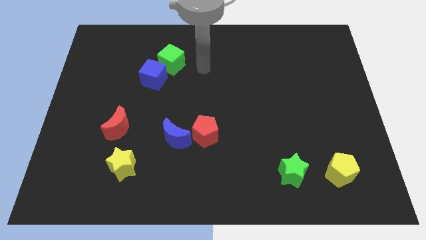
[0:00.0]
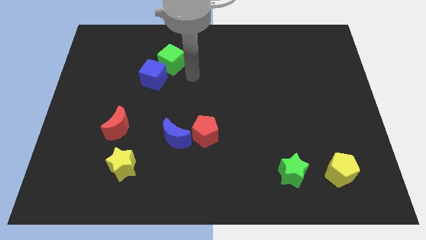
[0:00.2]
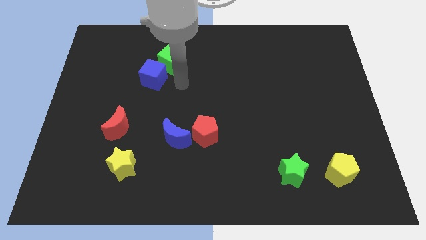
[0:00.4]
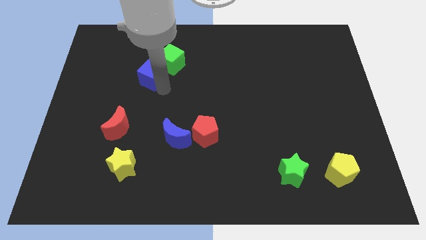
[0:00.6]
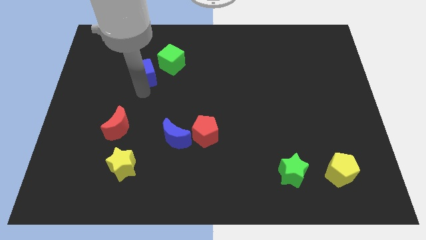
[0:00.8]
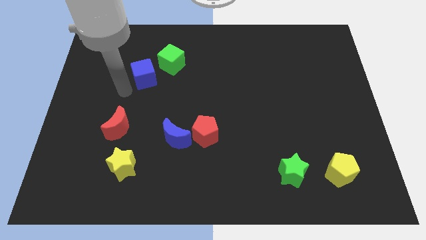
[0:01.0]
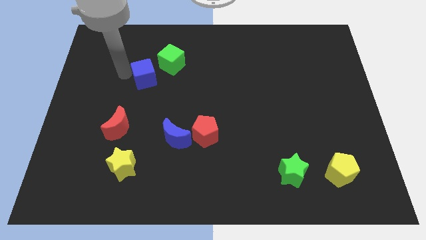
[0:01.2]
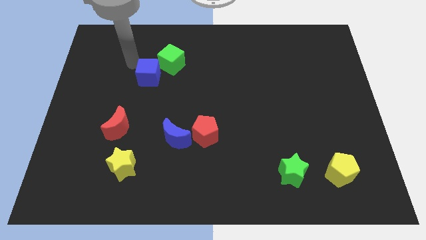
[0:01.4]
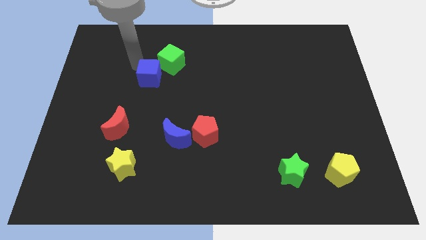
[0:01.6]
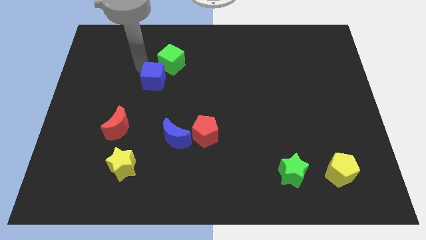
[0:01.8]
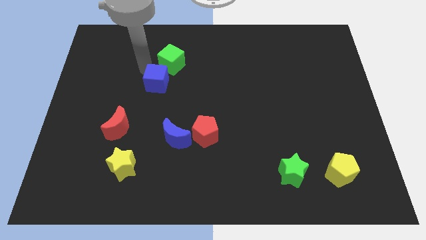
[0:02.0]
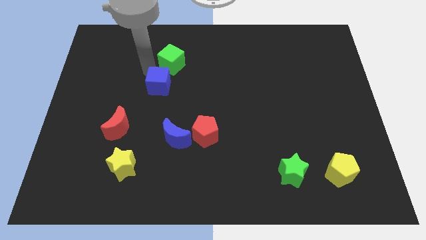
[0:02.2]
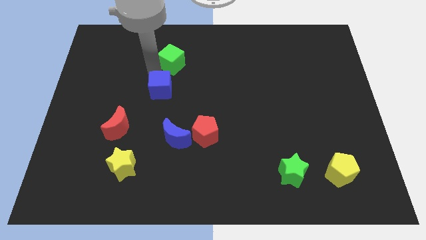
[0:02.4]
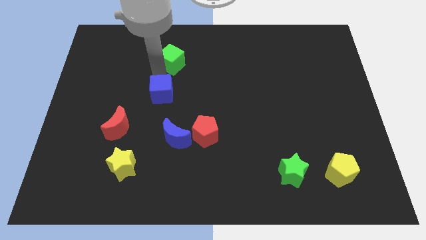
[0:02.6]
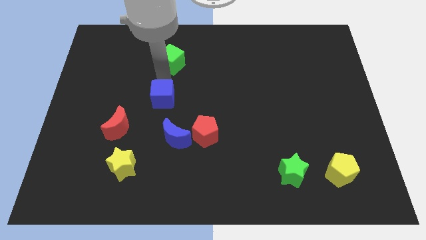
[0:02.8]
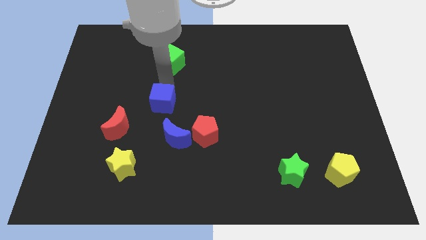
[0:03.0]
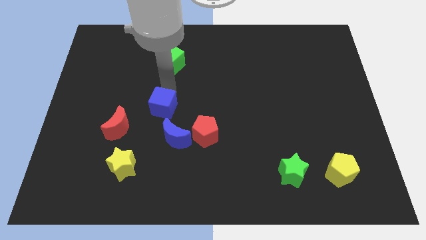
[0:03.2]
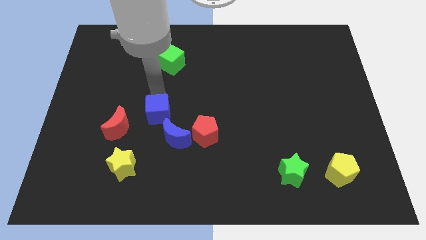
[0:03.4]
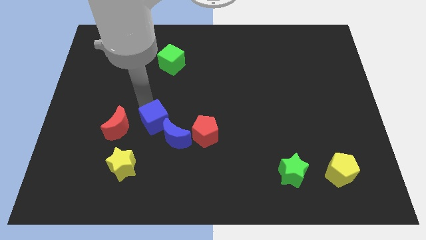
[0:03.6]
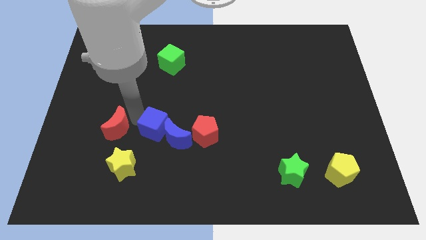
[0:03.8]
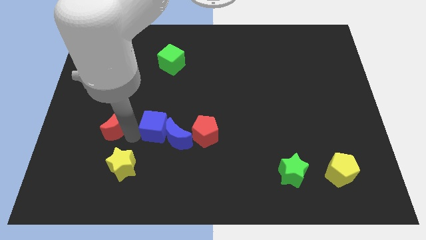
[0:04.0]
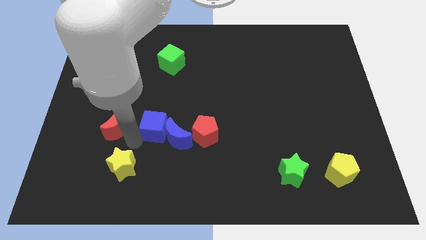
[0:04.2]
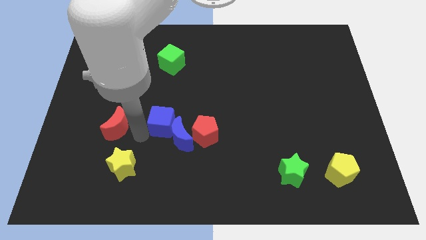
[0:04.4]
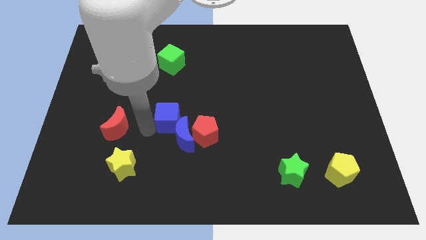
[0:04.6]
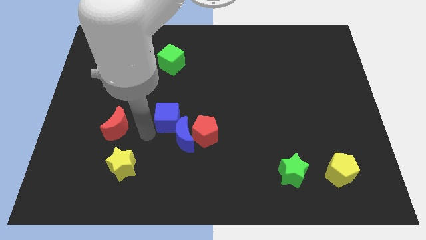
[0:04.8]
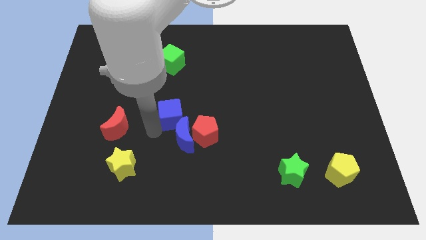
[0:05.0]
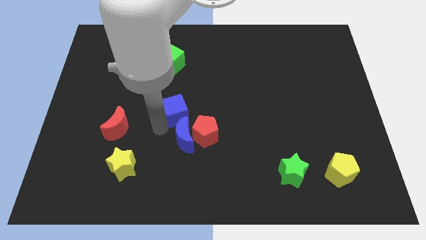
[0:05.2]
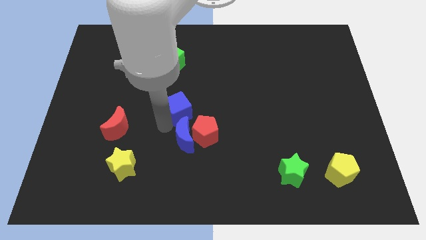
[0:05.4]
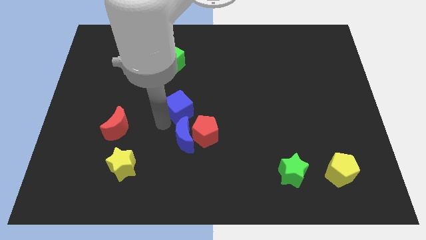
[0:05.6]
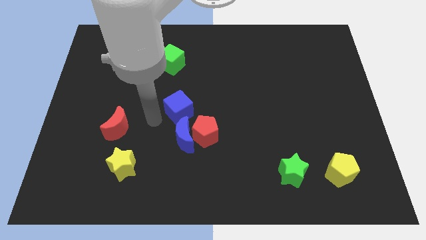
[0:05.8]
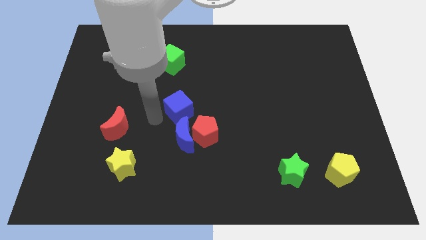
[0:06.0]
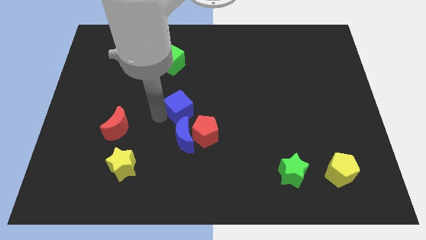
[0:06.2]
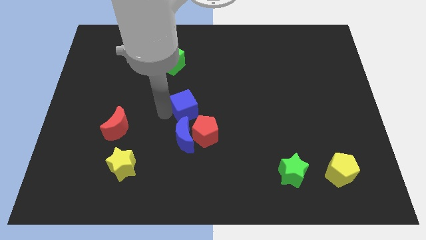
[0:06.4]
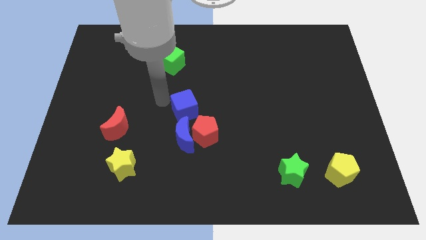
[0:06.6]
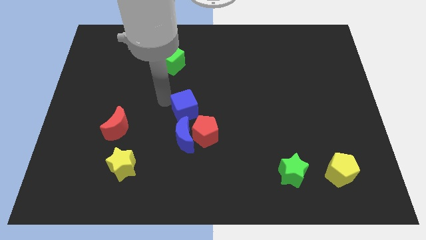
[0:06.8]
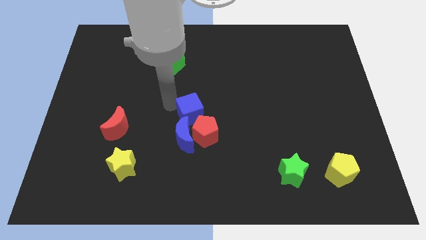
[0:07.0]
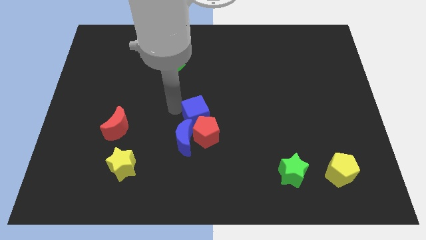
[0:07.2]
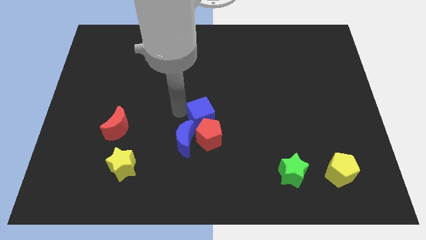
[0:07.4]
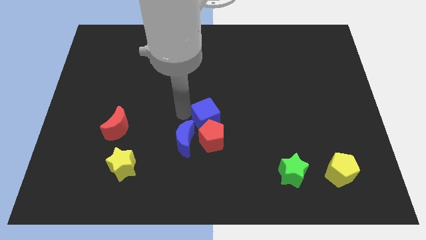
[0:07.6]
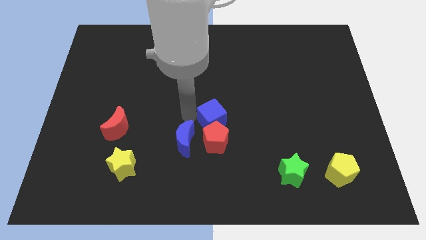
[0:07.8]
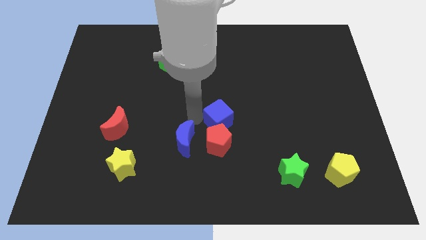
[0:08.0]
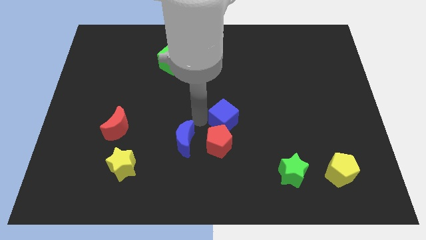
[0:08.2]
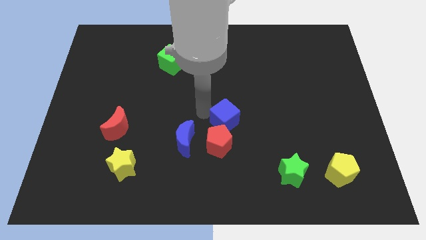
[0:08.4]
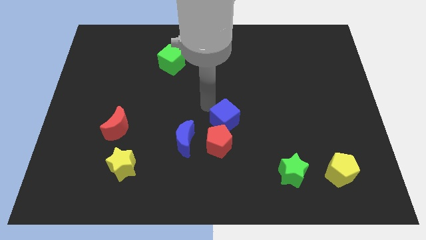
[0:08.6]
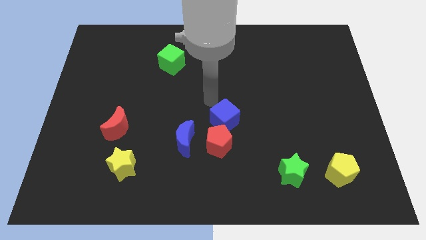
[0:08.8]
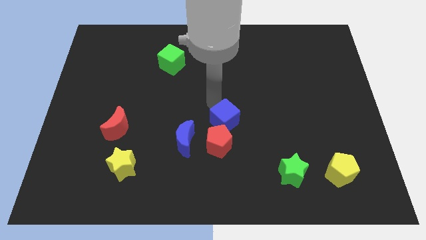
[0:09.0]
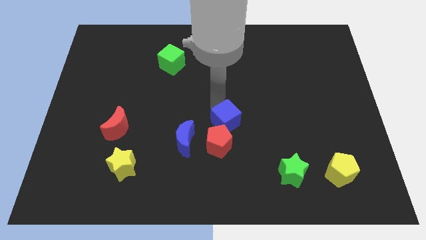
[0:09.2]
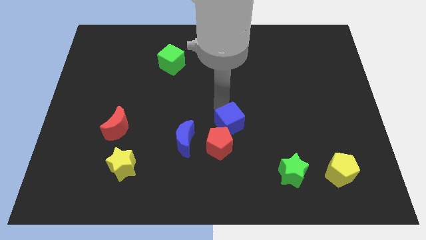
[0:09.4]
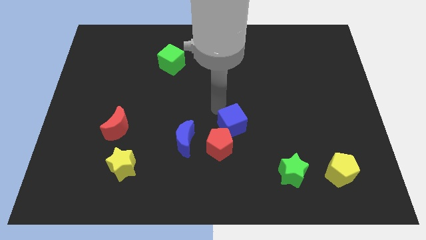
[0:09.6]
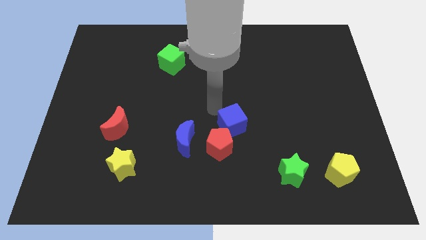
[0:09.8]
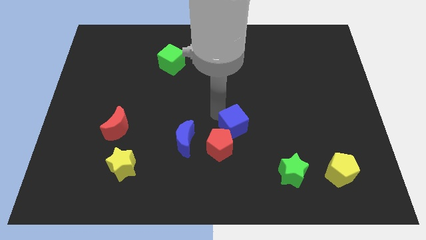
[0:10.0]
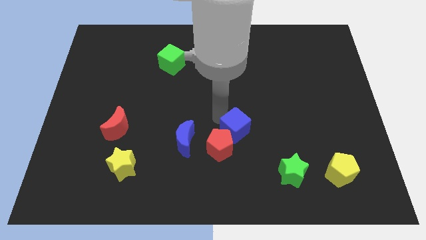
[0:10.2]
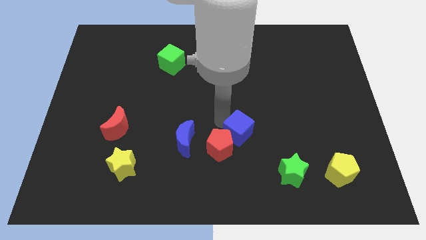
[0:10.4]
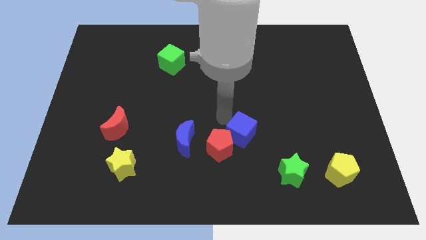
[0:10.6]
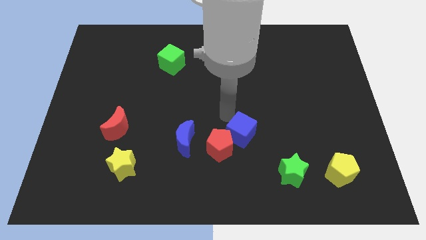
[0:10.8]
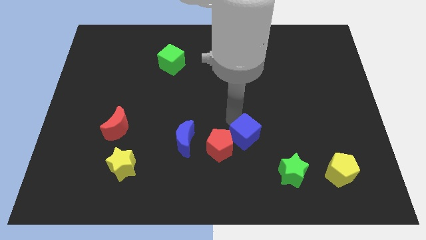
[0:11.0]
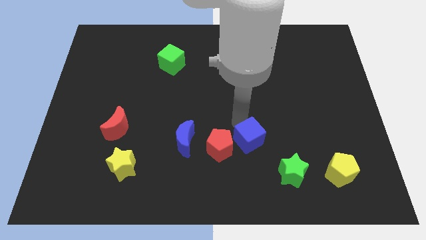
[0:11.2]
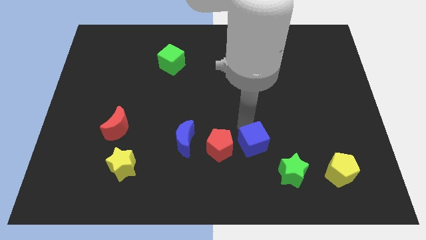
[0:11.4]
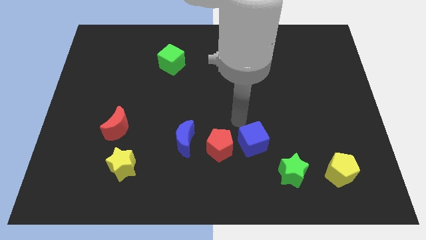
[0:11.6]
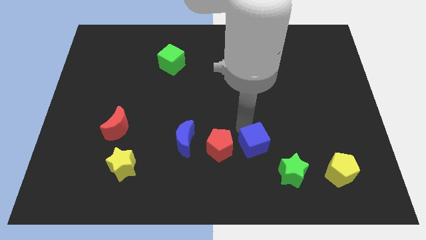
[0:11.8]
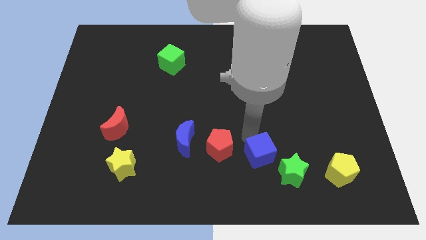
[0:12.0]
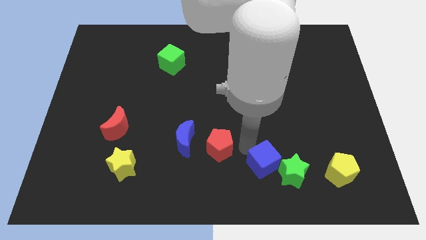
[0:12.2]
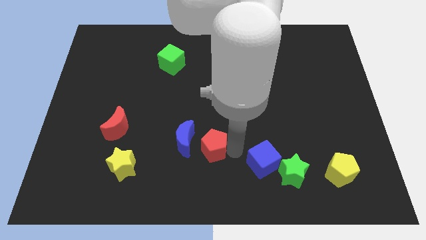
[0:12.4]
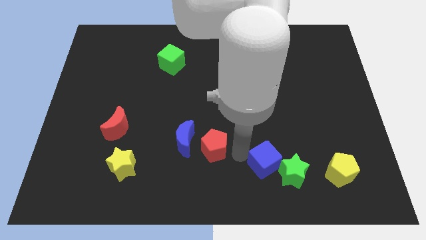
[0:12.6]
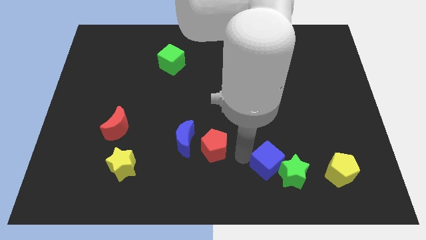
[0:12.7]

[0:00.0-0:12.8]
push the blue cube to the green star

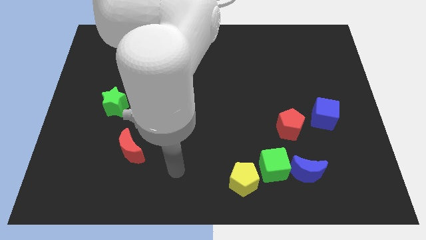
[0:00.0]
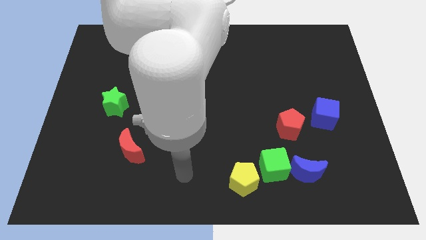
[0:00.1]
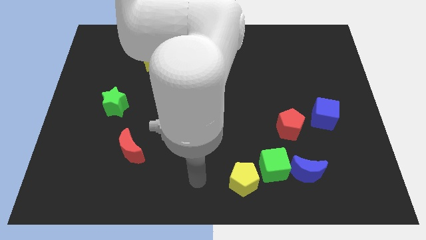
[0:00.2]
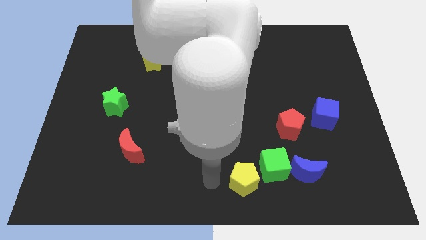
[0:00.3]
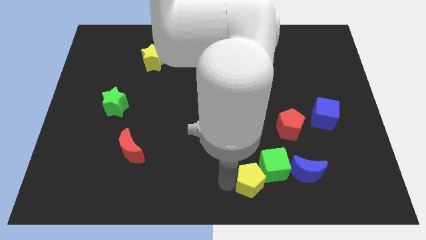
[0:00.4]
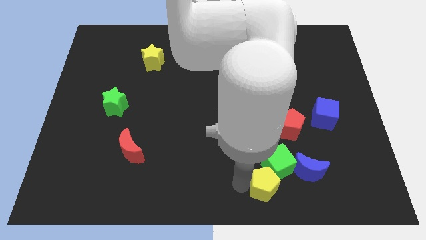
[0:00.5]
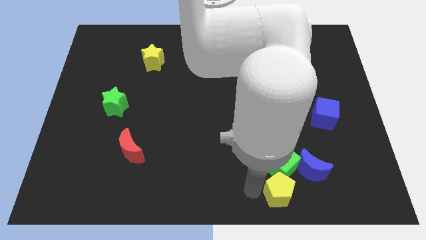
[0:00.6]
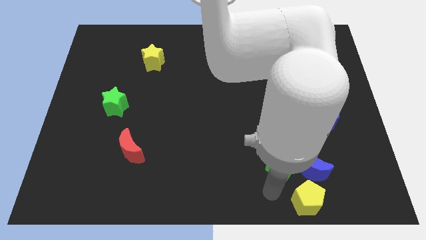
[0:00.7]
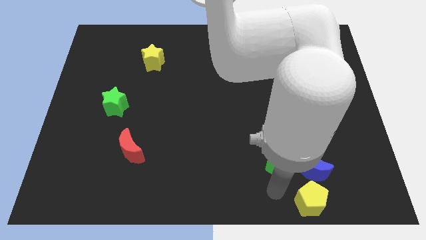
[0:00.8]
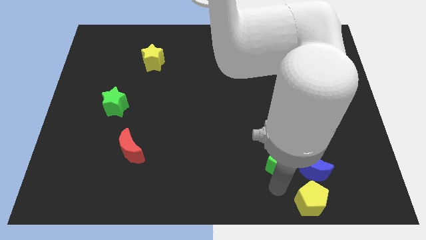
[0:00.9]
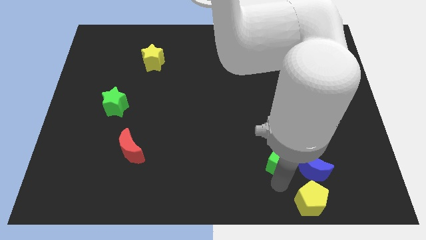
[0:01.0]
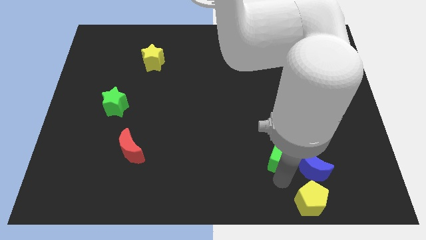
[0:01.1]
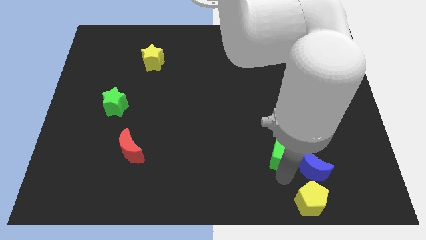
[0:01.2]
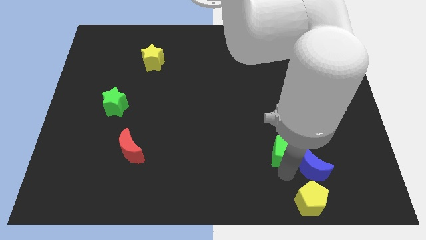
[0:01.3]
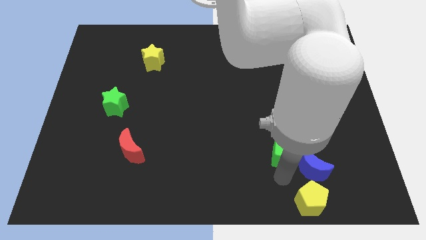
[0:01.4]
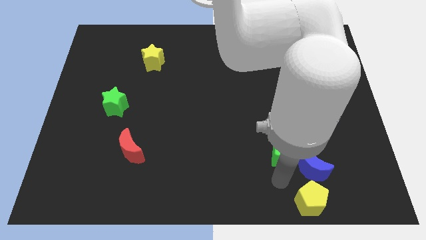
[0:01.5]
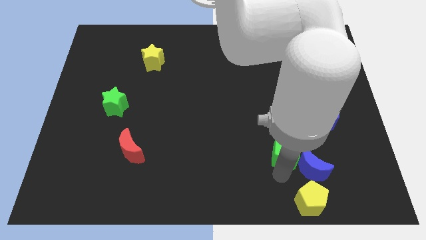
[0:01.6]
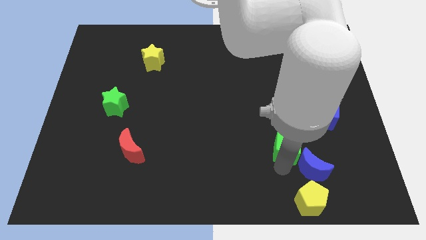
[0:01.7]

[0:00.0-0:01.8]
put the green cube to the red pentagon
